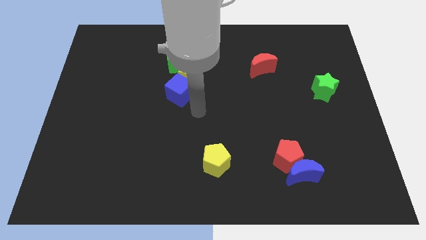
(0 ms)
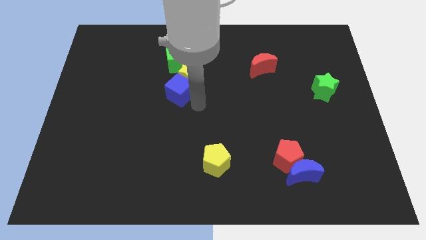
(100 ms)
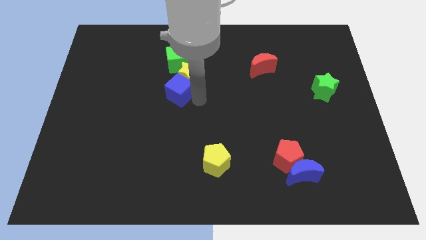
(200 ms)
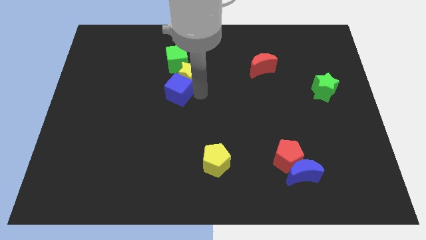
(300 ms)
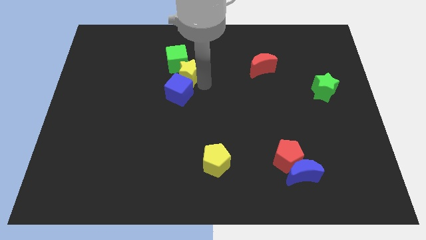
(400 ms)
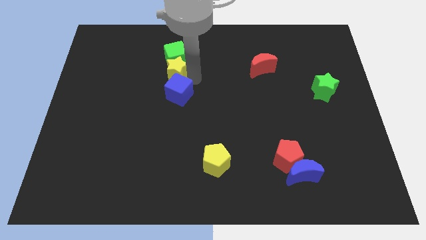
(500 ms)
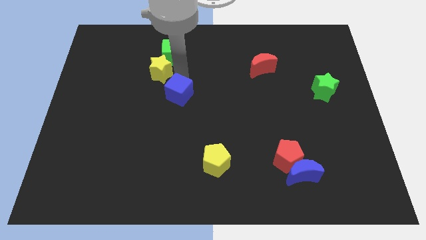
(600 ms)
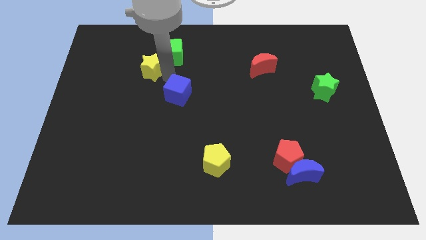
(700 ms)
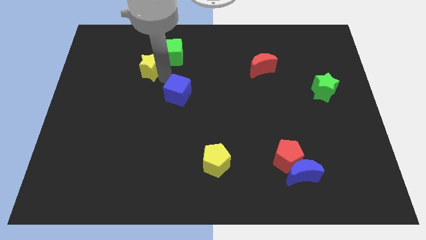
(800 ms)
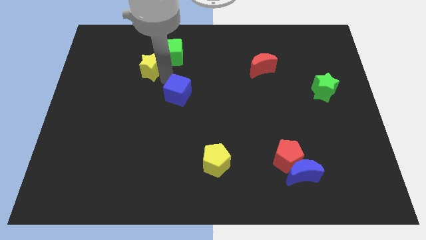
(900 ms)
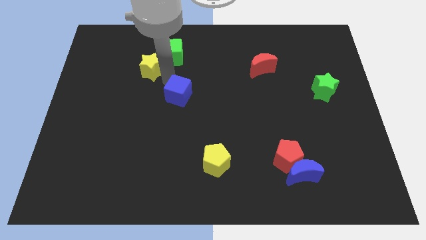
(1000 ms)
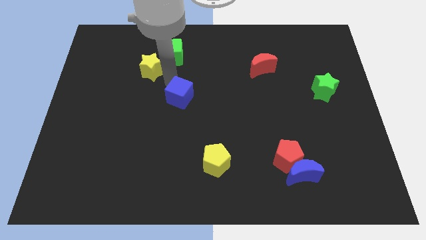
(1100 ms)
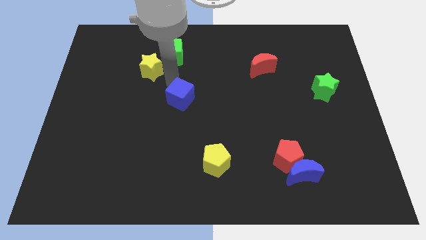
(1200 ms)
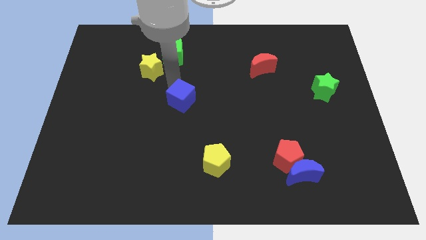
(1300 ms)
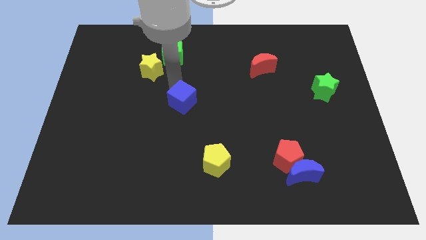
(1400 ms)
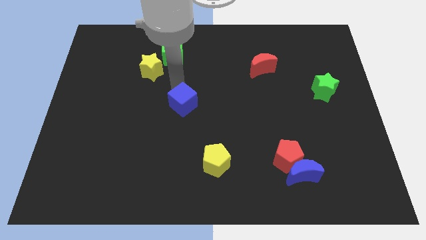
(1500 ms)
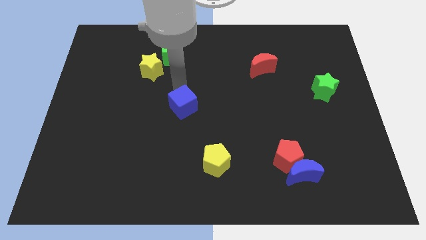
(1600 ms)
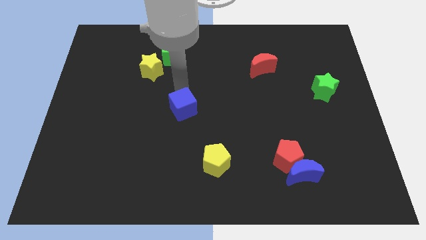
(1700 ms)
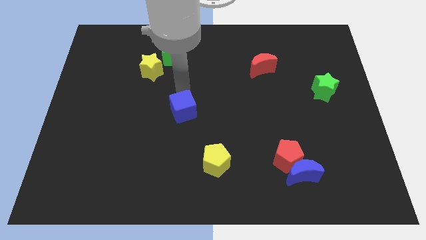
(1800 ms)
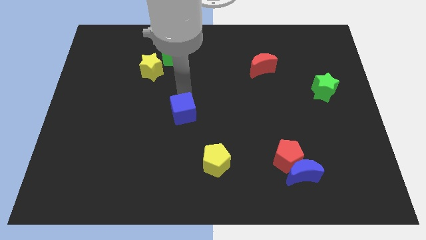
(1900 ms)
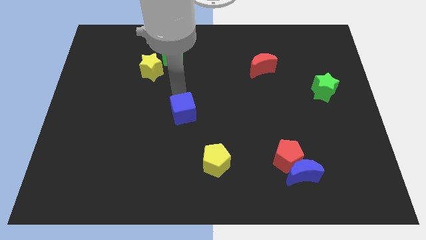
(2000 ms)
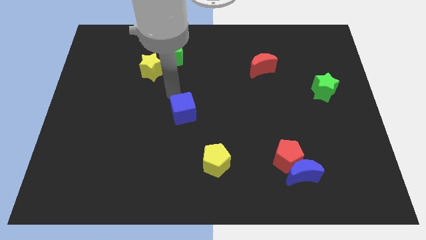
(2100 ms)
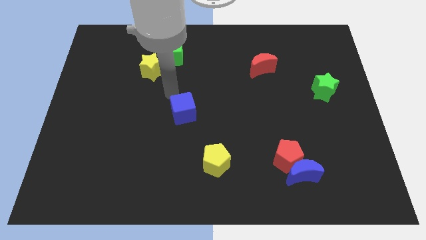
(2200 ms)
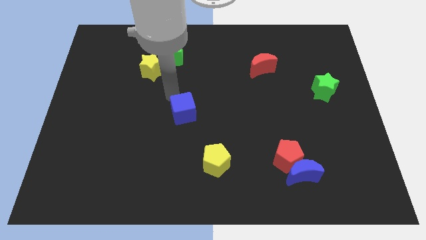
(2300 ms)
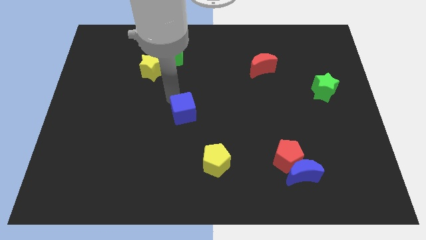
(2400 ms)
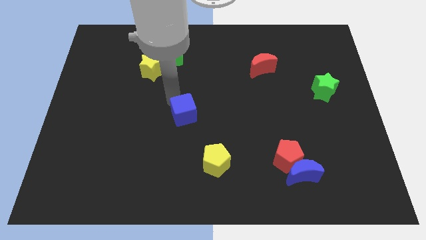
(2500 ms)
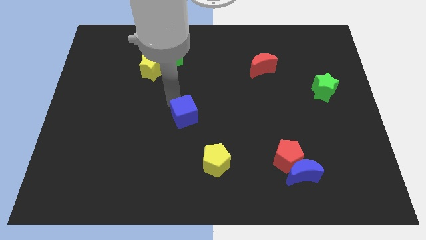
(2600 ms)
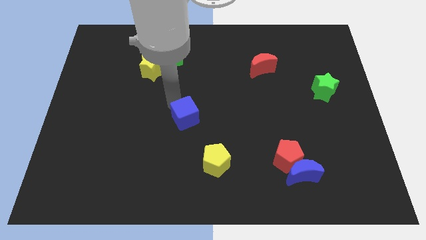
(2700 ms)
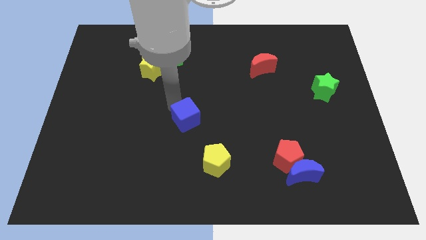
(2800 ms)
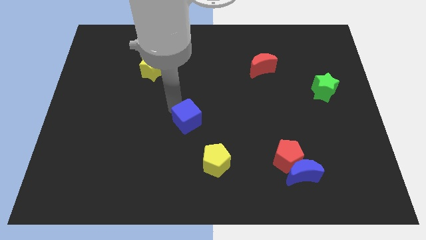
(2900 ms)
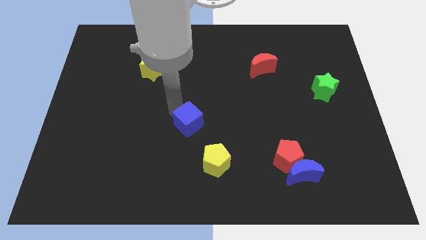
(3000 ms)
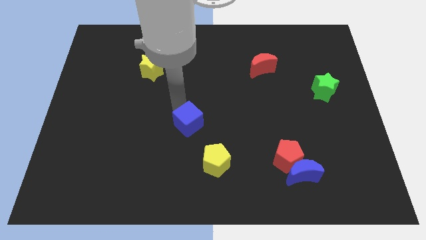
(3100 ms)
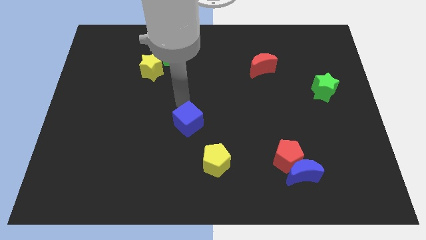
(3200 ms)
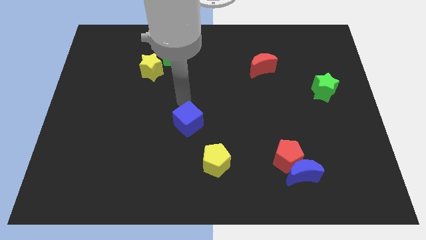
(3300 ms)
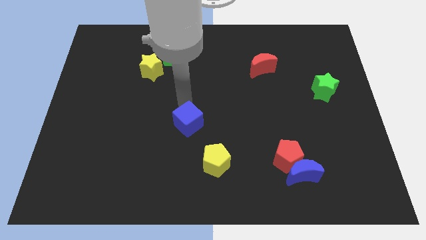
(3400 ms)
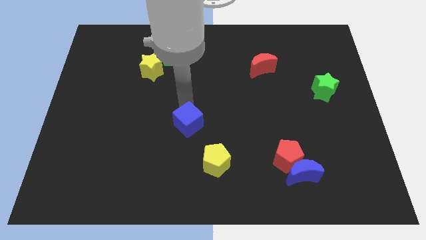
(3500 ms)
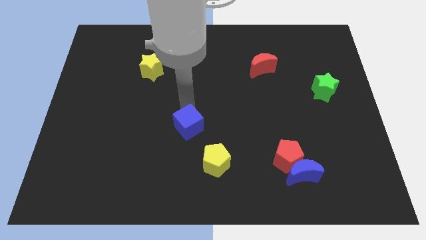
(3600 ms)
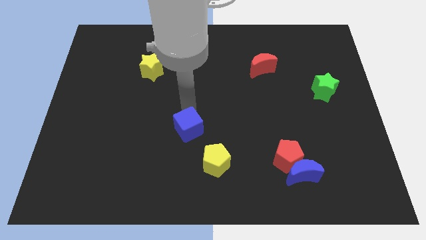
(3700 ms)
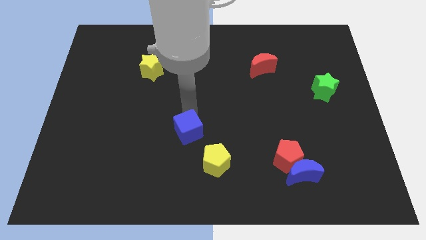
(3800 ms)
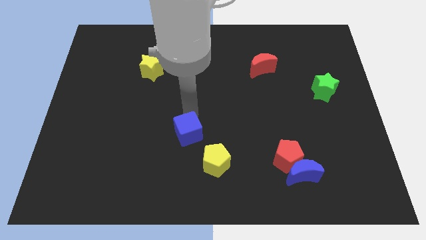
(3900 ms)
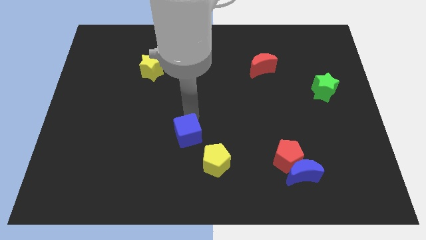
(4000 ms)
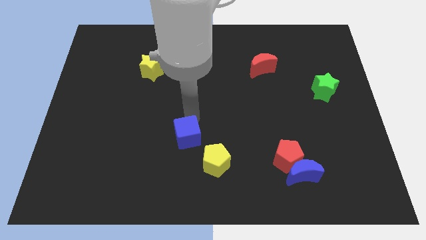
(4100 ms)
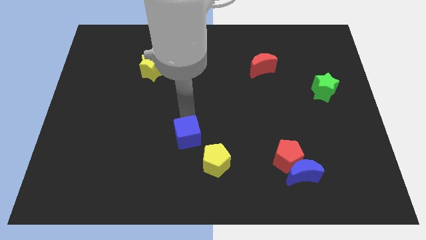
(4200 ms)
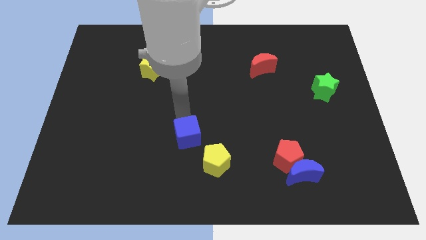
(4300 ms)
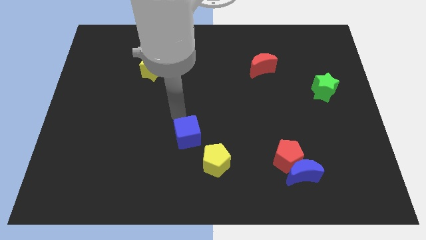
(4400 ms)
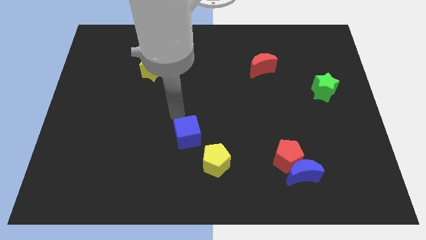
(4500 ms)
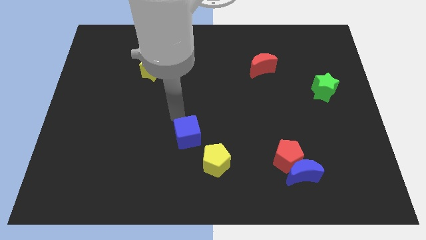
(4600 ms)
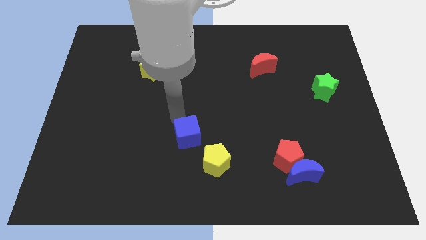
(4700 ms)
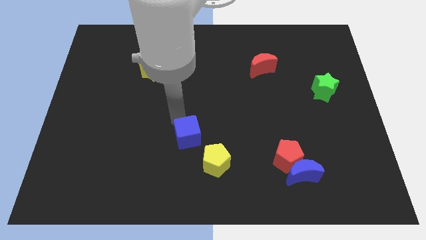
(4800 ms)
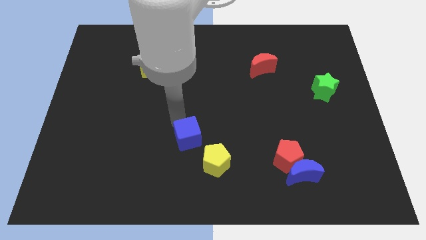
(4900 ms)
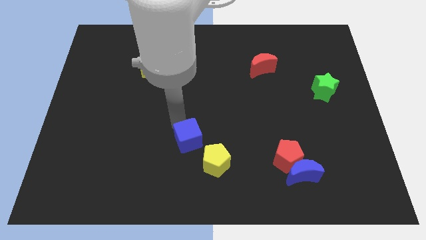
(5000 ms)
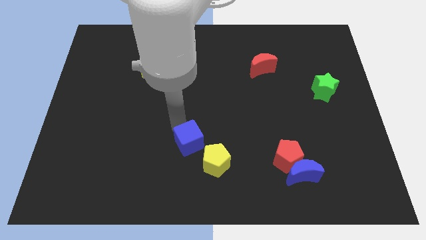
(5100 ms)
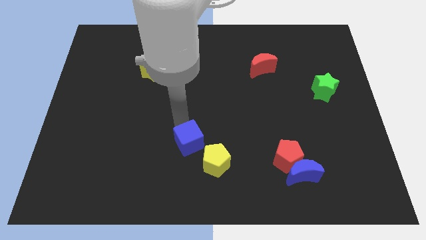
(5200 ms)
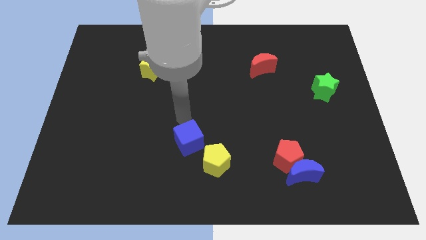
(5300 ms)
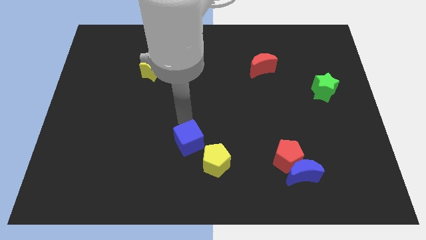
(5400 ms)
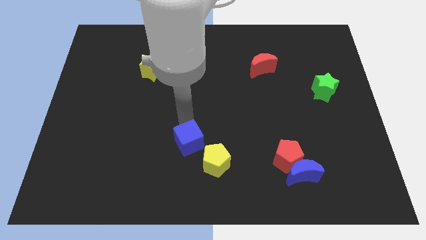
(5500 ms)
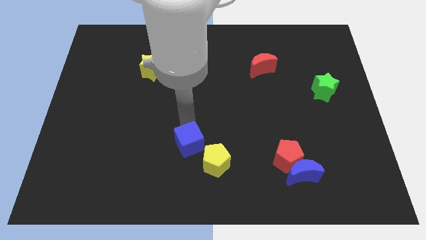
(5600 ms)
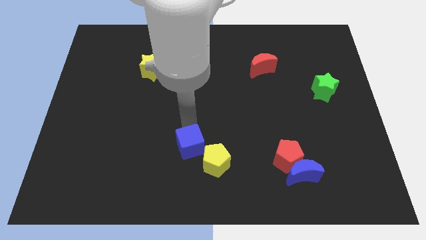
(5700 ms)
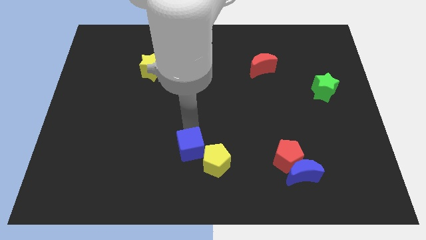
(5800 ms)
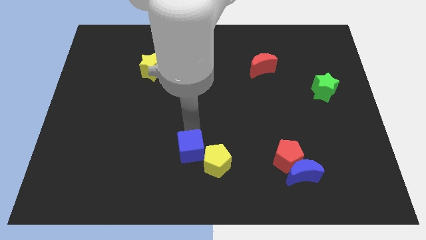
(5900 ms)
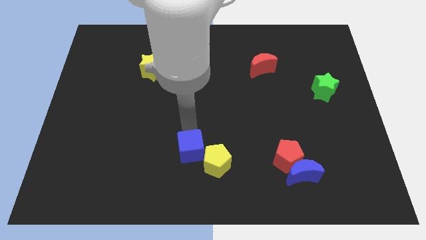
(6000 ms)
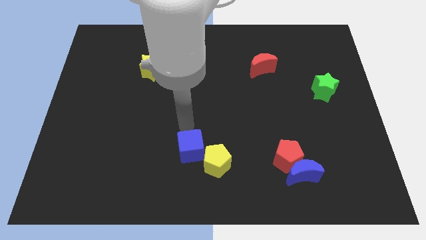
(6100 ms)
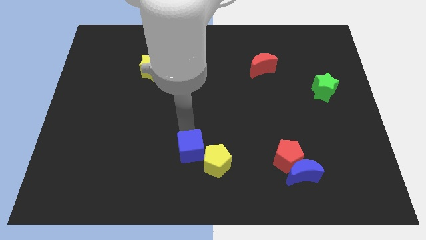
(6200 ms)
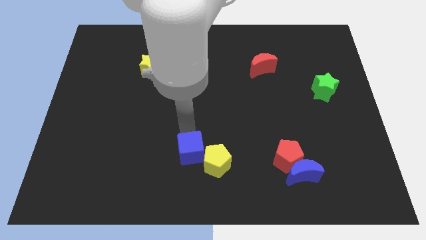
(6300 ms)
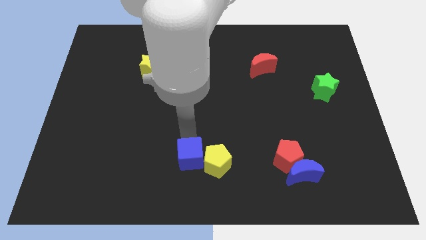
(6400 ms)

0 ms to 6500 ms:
push the blue cube to the bottom
